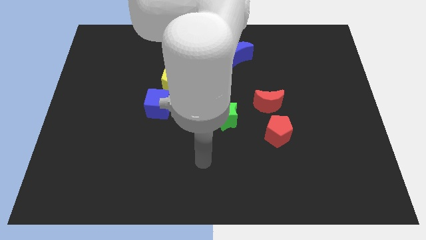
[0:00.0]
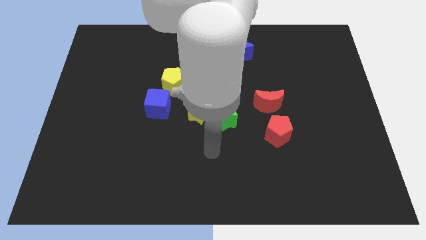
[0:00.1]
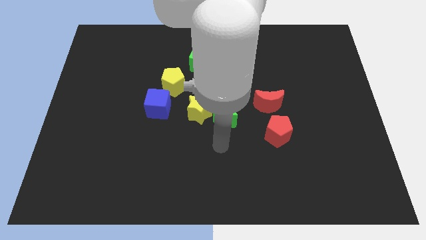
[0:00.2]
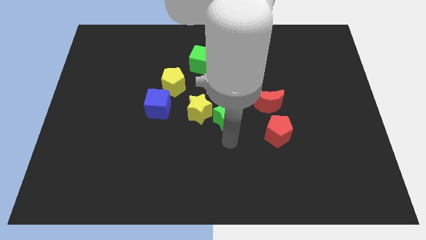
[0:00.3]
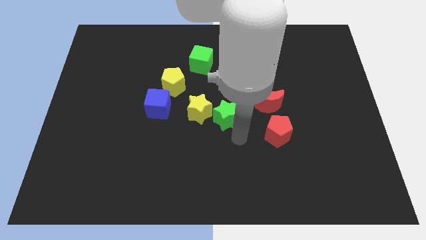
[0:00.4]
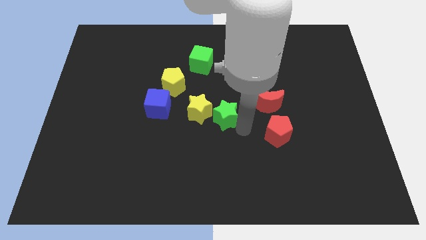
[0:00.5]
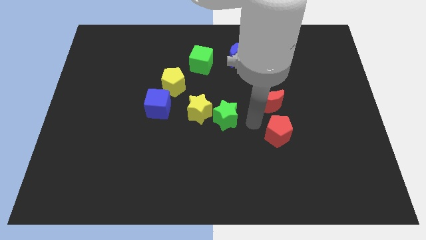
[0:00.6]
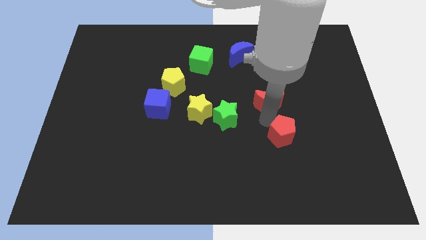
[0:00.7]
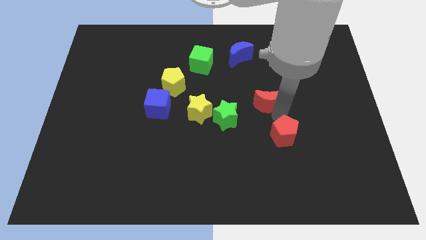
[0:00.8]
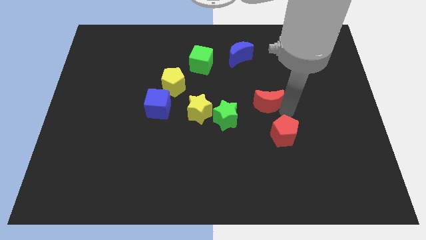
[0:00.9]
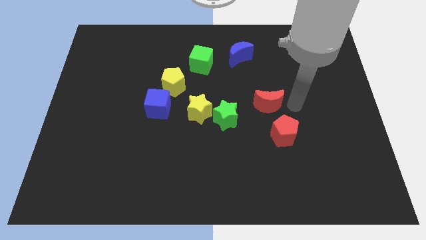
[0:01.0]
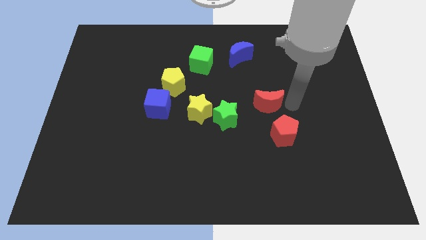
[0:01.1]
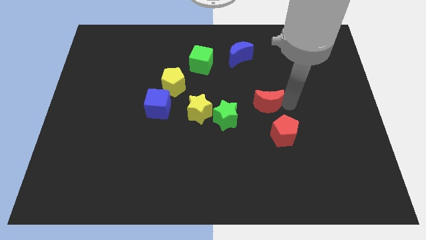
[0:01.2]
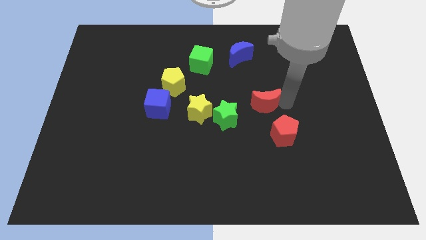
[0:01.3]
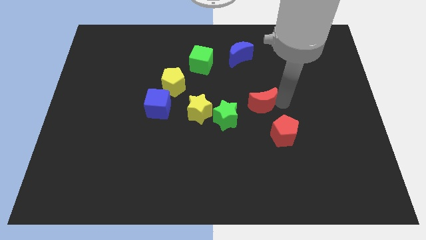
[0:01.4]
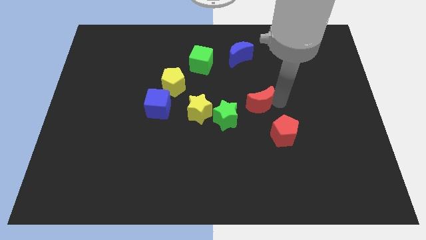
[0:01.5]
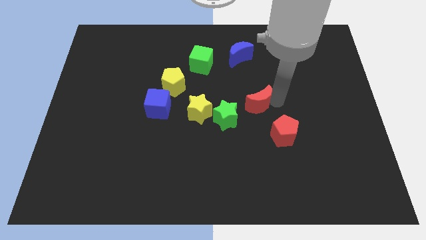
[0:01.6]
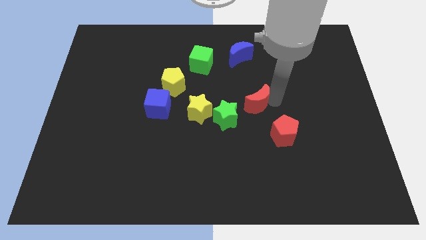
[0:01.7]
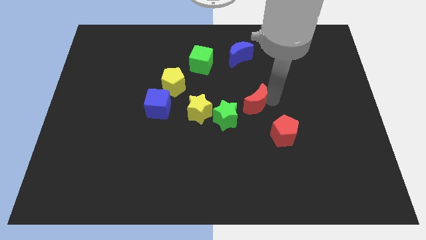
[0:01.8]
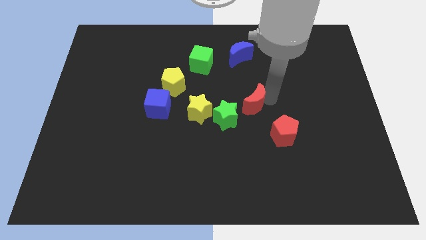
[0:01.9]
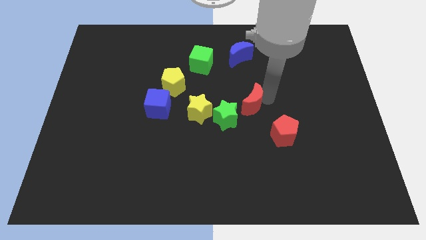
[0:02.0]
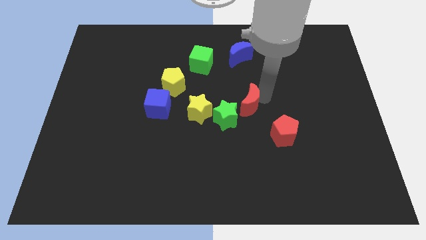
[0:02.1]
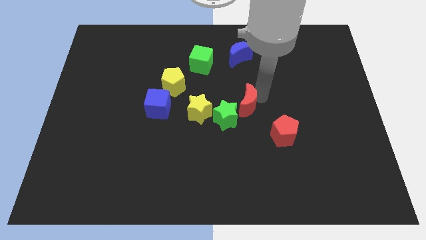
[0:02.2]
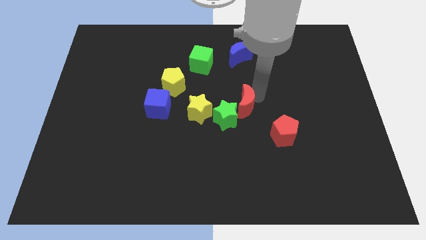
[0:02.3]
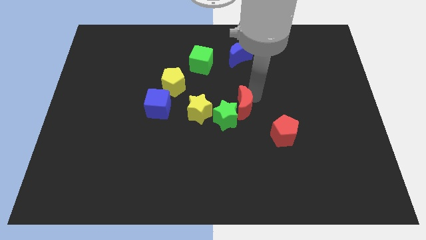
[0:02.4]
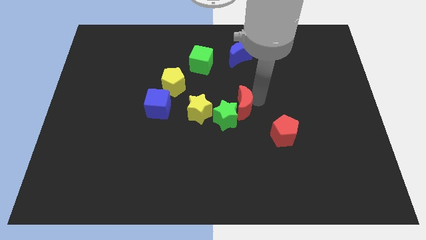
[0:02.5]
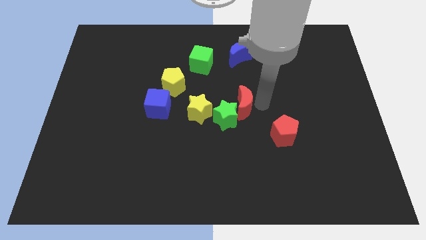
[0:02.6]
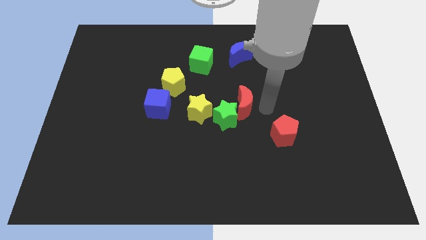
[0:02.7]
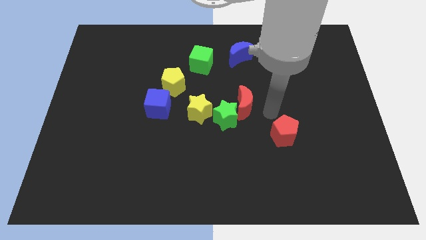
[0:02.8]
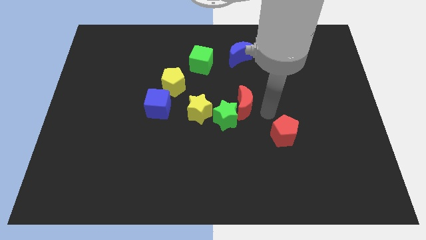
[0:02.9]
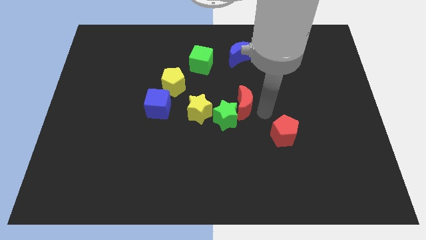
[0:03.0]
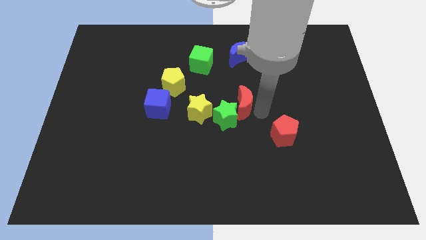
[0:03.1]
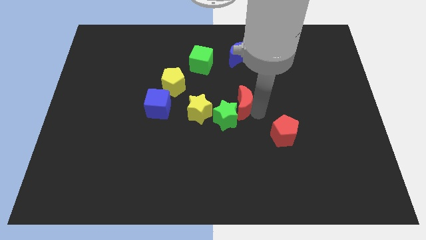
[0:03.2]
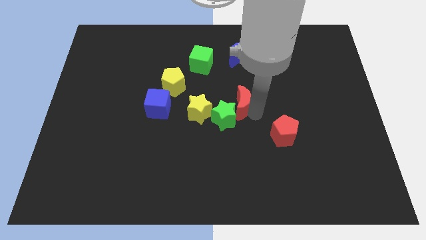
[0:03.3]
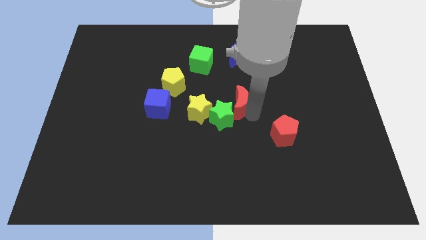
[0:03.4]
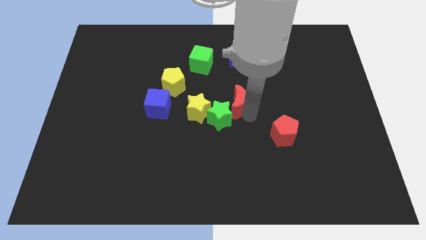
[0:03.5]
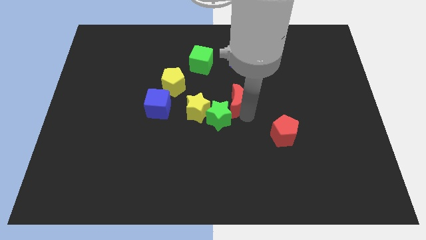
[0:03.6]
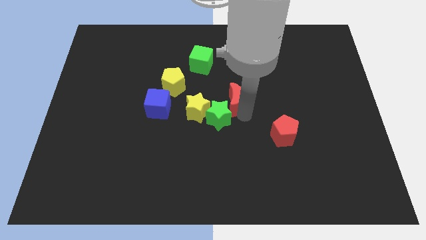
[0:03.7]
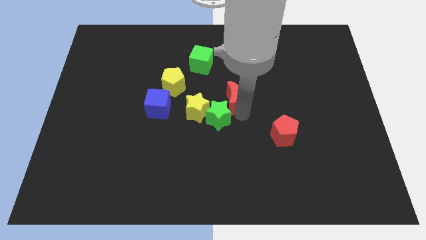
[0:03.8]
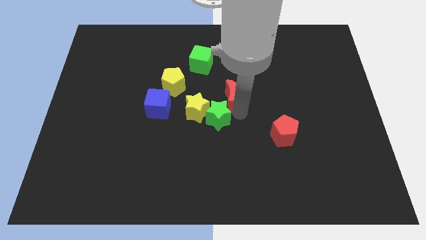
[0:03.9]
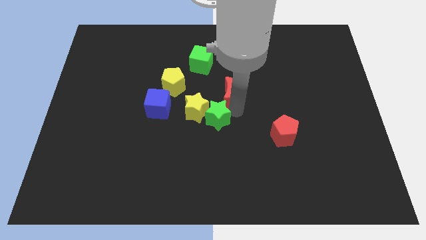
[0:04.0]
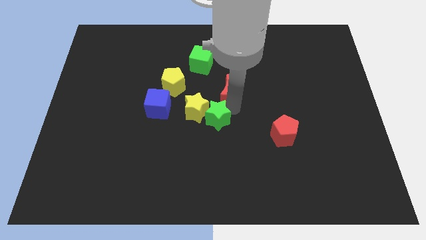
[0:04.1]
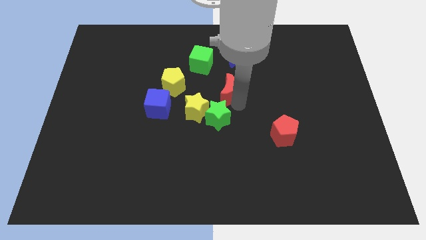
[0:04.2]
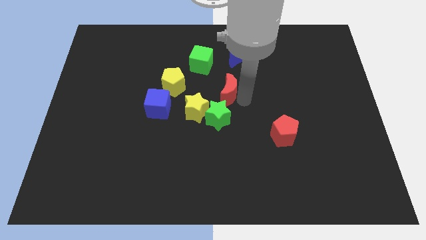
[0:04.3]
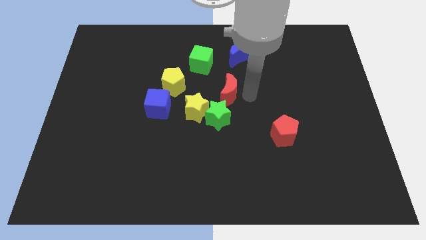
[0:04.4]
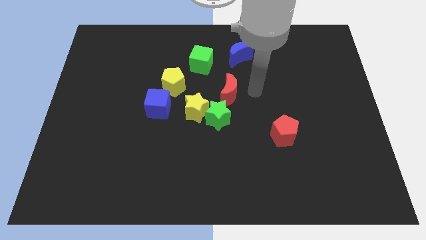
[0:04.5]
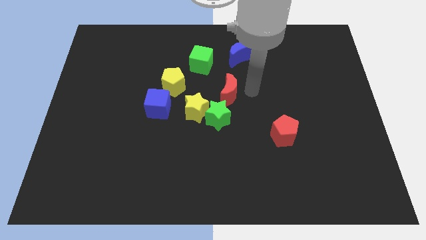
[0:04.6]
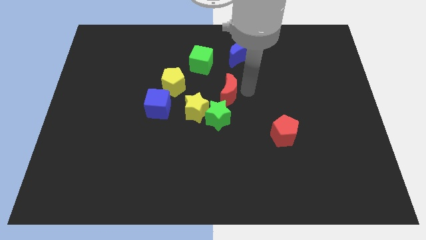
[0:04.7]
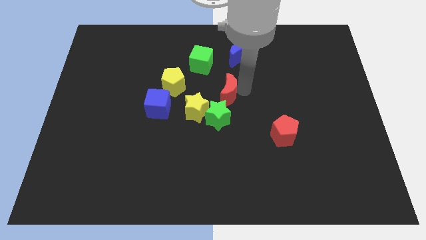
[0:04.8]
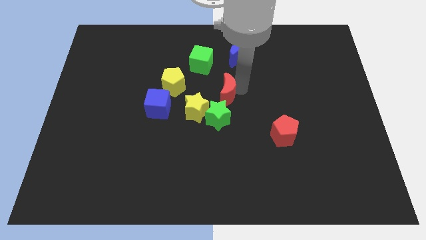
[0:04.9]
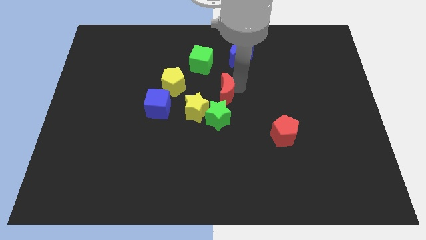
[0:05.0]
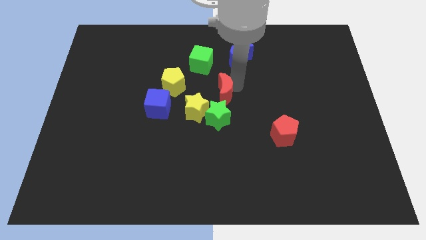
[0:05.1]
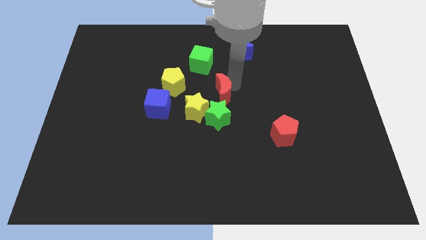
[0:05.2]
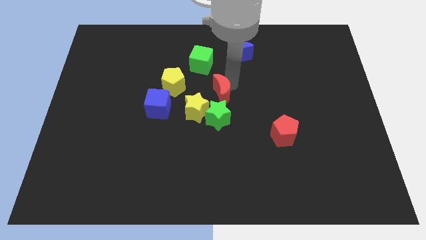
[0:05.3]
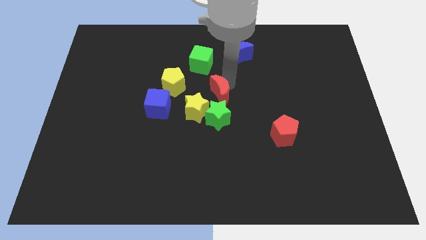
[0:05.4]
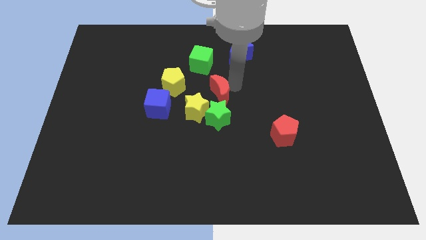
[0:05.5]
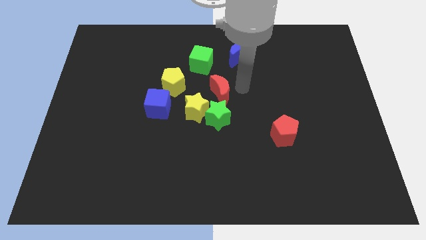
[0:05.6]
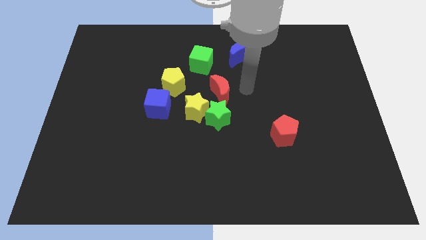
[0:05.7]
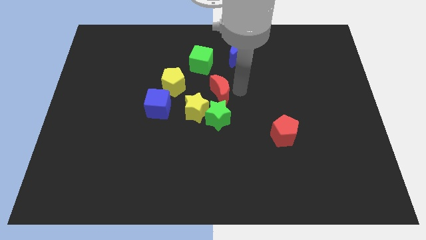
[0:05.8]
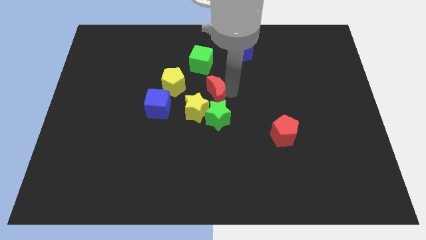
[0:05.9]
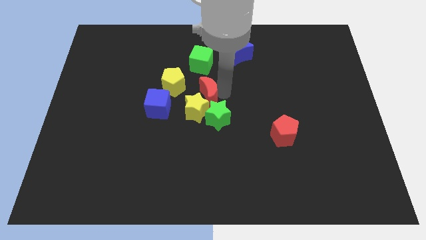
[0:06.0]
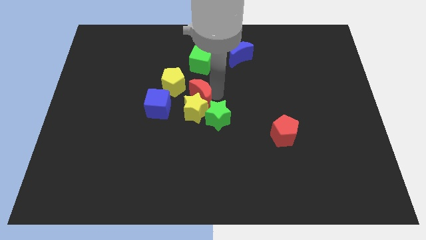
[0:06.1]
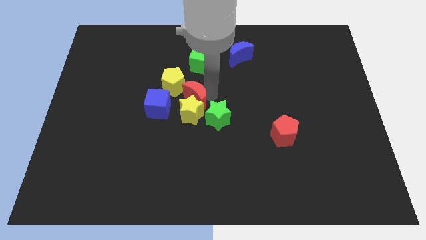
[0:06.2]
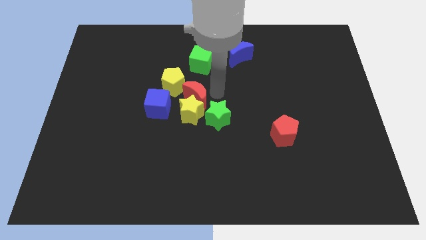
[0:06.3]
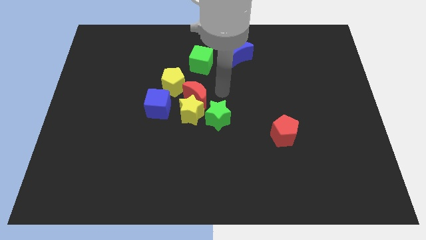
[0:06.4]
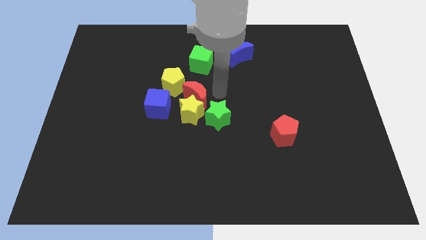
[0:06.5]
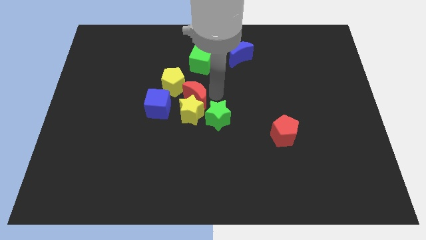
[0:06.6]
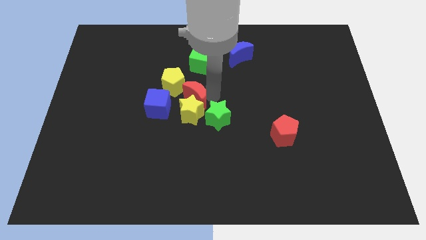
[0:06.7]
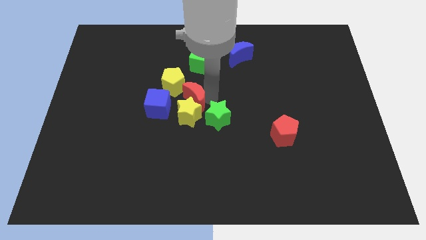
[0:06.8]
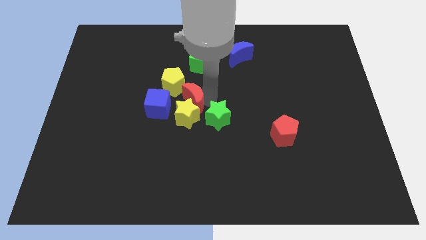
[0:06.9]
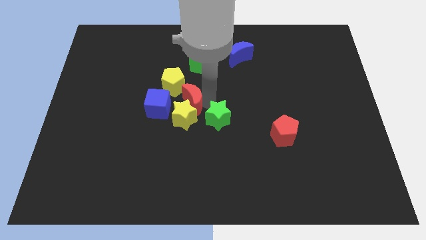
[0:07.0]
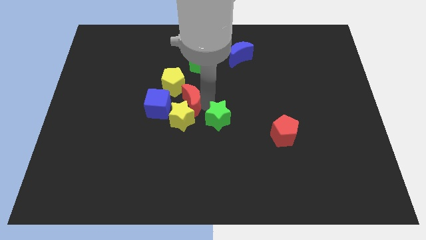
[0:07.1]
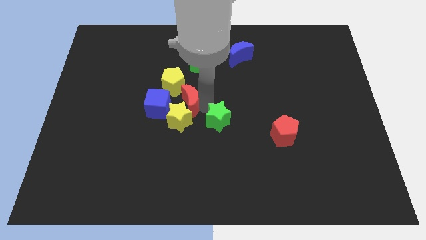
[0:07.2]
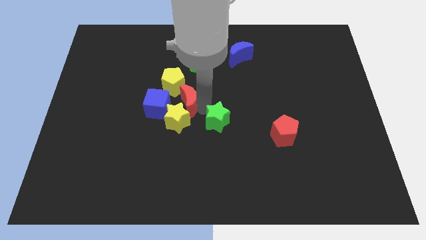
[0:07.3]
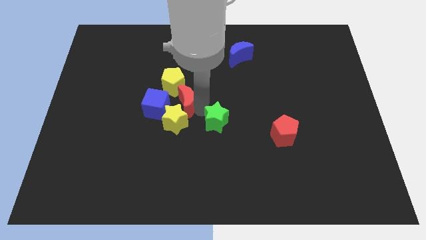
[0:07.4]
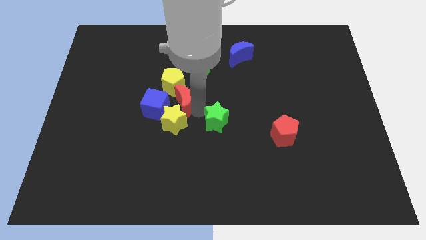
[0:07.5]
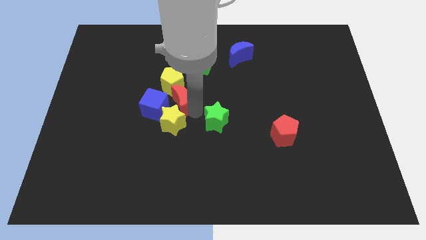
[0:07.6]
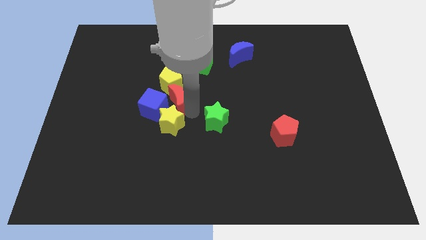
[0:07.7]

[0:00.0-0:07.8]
move the red moon to the blue cube
